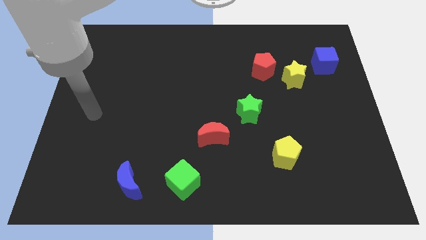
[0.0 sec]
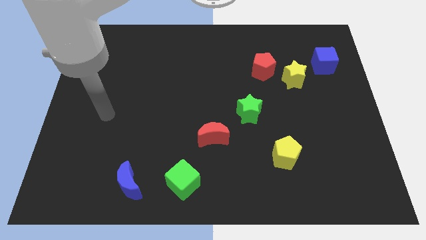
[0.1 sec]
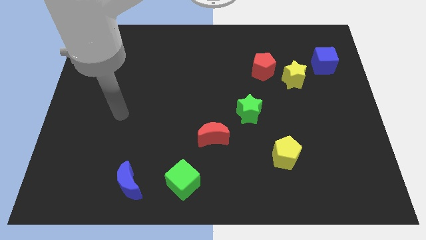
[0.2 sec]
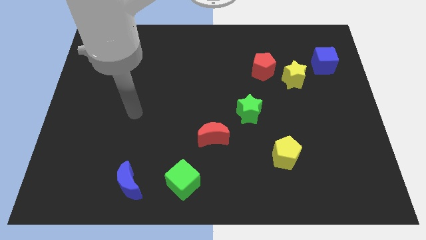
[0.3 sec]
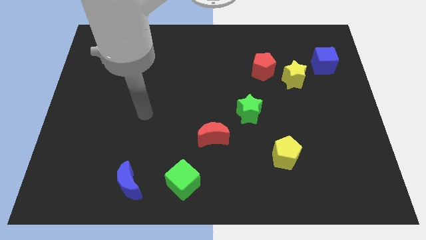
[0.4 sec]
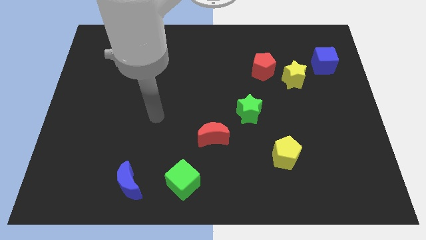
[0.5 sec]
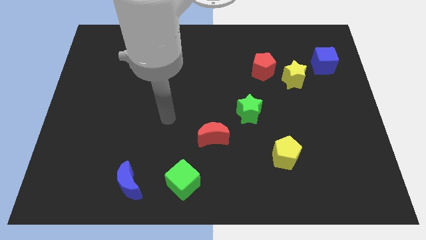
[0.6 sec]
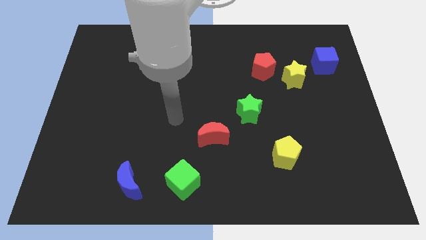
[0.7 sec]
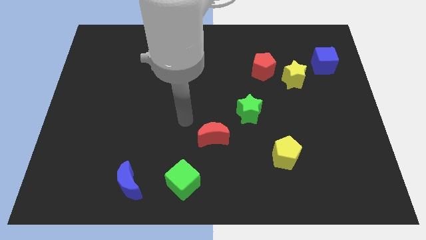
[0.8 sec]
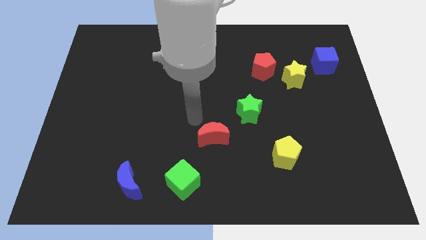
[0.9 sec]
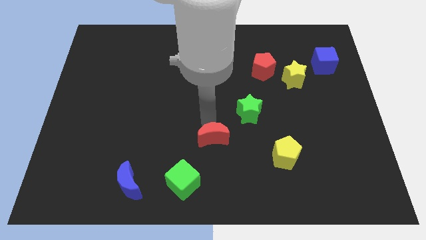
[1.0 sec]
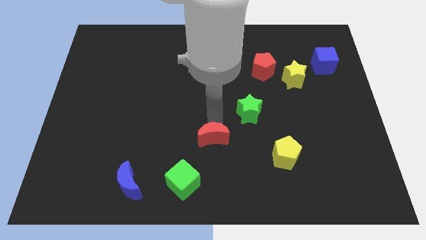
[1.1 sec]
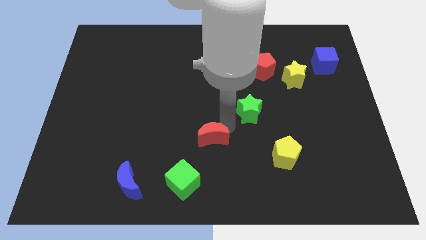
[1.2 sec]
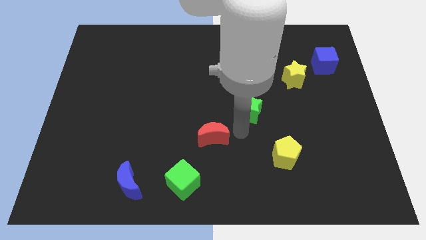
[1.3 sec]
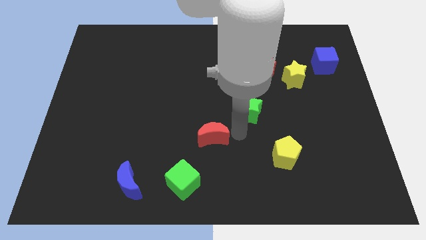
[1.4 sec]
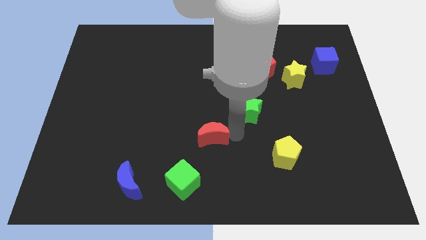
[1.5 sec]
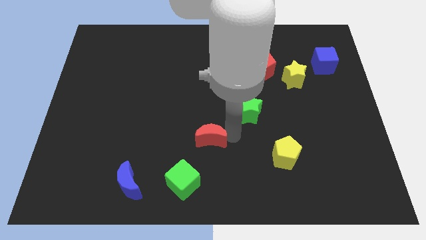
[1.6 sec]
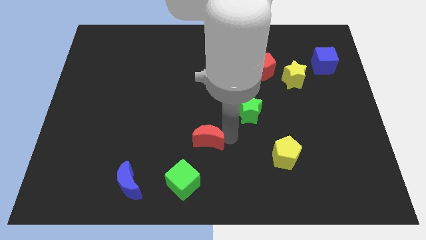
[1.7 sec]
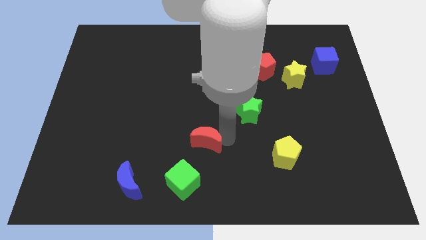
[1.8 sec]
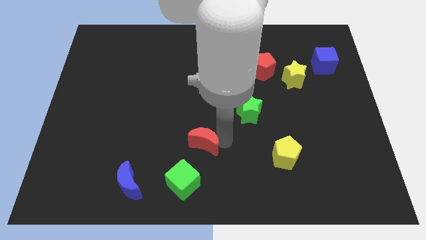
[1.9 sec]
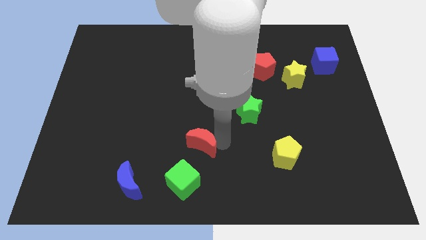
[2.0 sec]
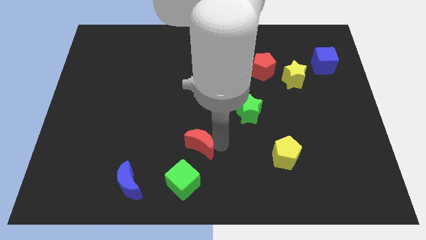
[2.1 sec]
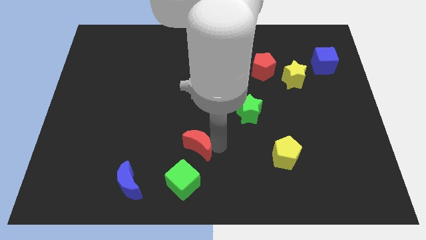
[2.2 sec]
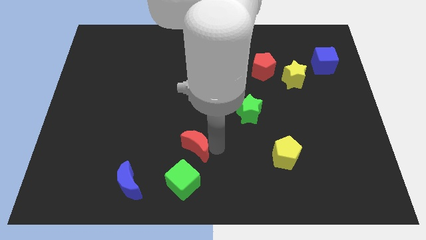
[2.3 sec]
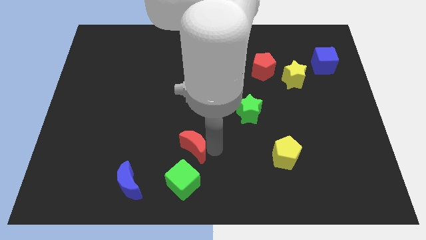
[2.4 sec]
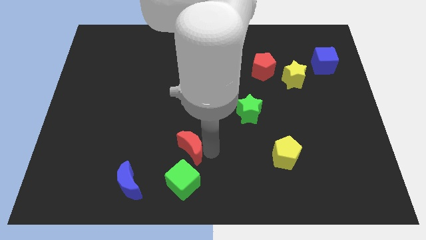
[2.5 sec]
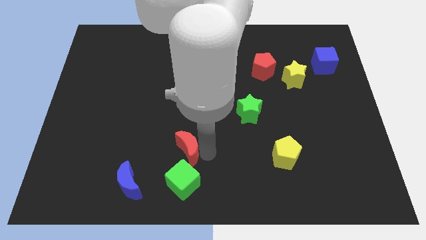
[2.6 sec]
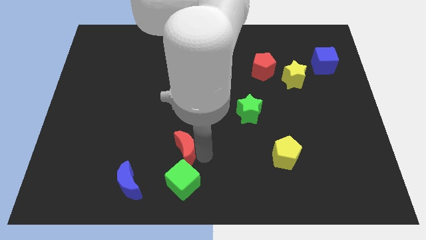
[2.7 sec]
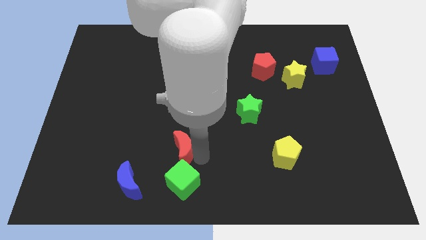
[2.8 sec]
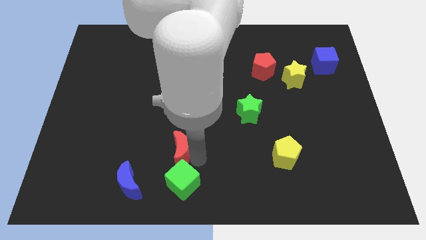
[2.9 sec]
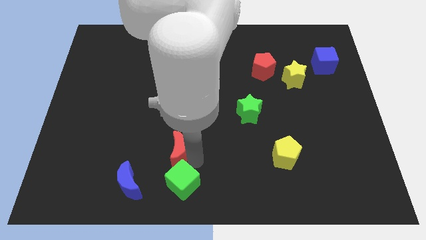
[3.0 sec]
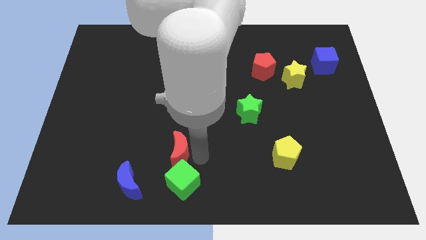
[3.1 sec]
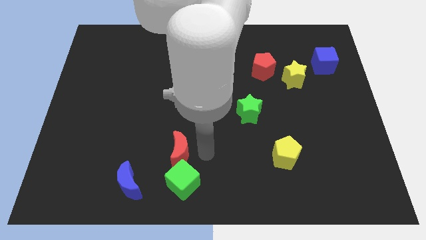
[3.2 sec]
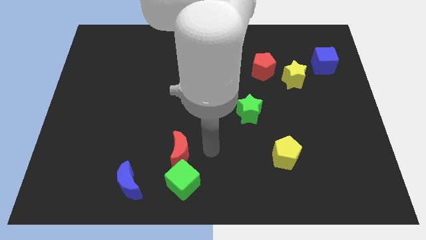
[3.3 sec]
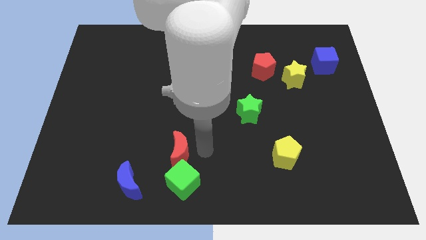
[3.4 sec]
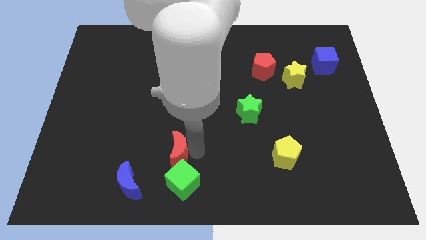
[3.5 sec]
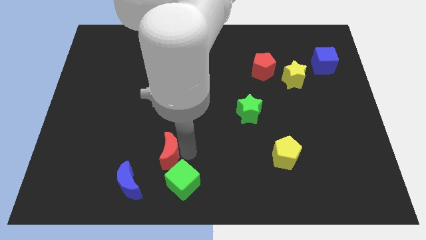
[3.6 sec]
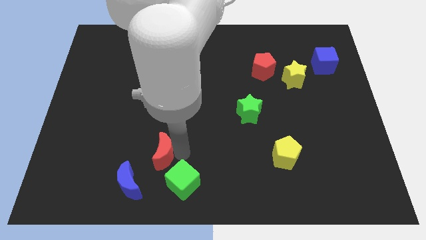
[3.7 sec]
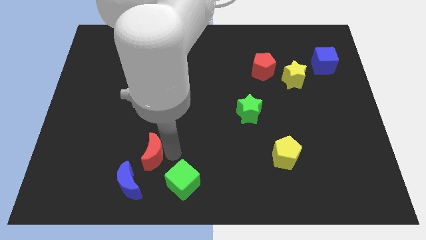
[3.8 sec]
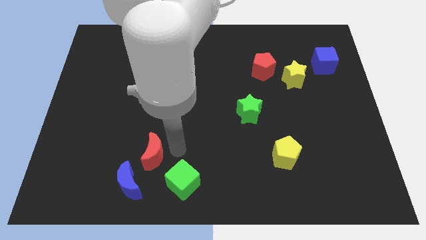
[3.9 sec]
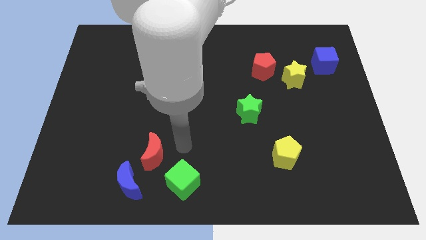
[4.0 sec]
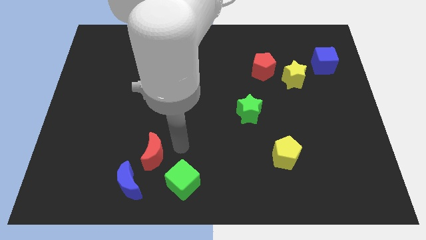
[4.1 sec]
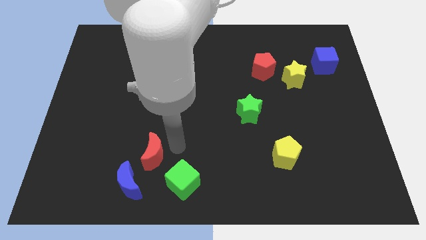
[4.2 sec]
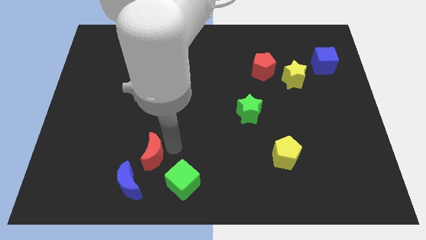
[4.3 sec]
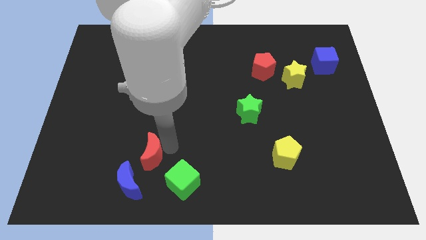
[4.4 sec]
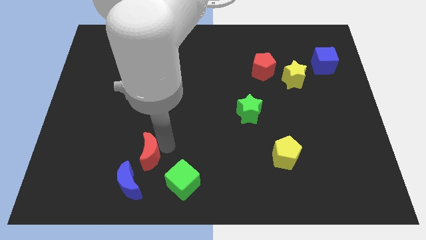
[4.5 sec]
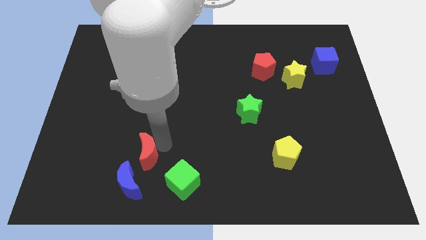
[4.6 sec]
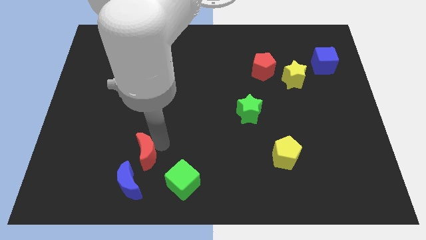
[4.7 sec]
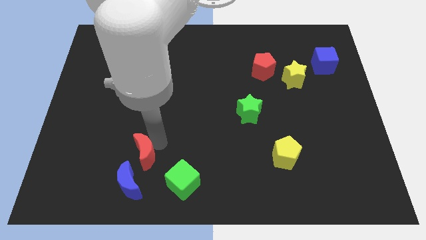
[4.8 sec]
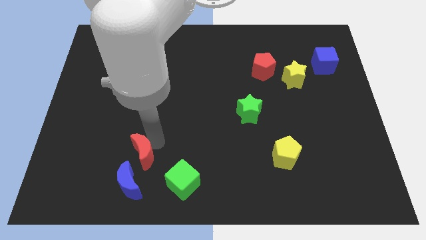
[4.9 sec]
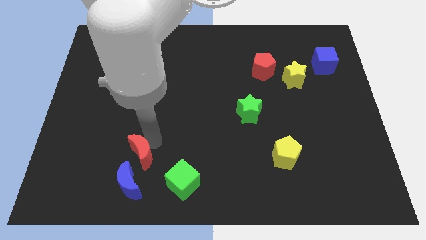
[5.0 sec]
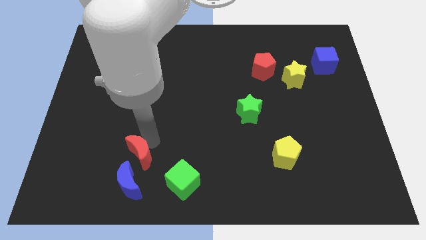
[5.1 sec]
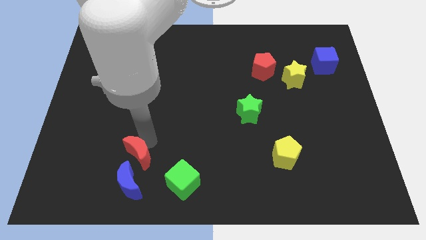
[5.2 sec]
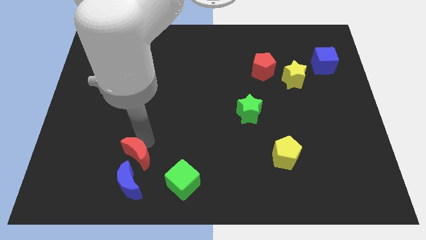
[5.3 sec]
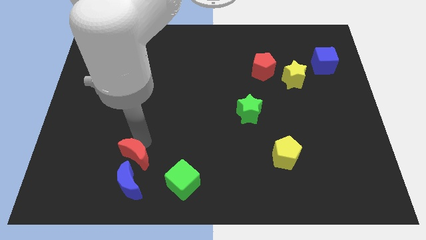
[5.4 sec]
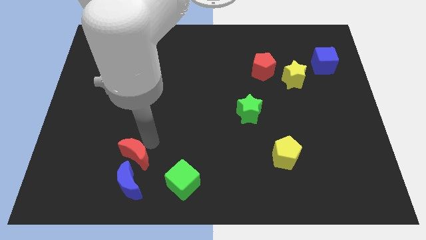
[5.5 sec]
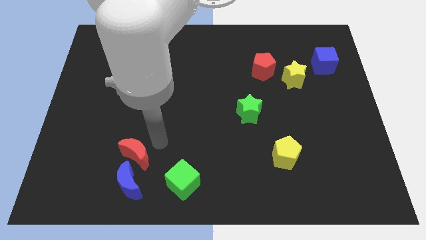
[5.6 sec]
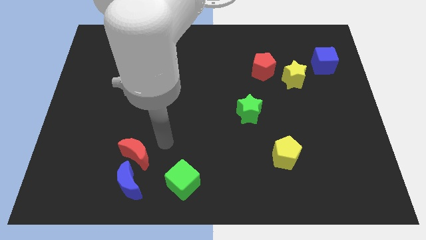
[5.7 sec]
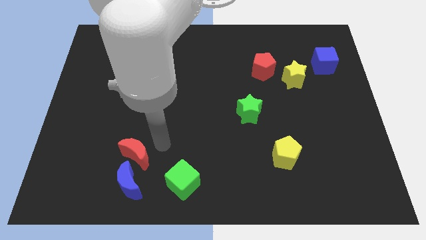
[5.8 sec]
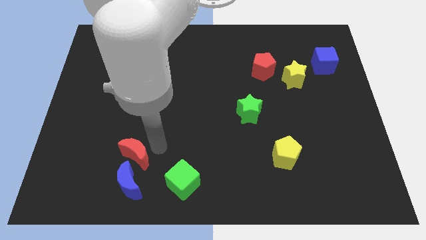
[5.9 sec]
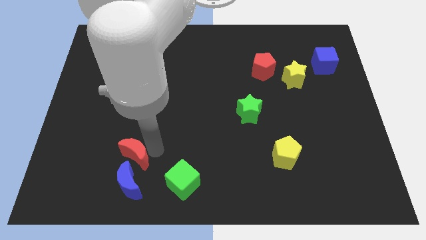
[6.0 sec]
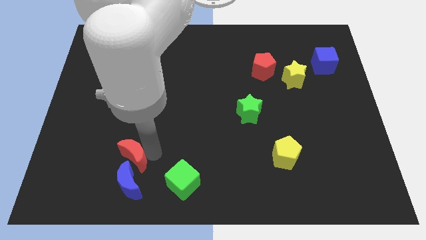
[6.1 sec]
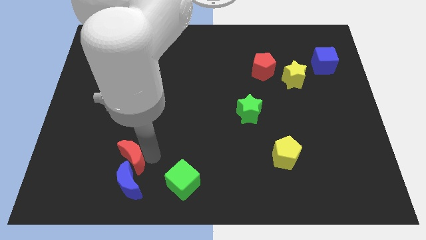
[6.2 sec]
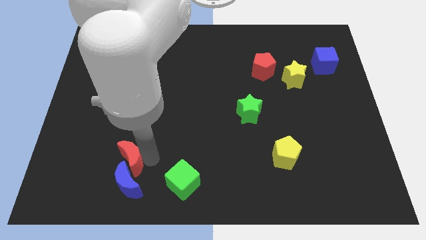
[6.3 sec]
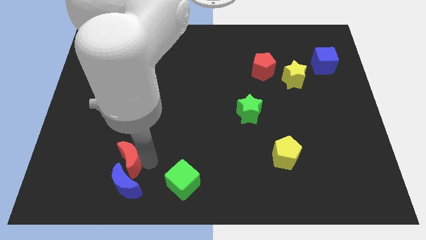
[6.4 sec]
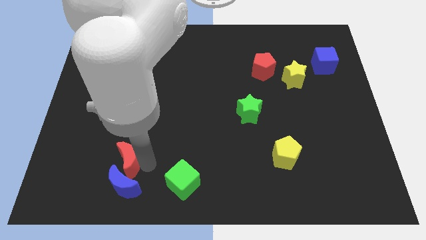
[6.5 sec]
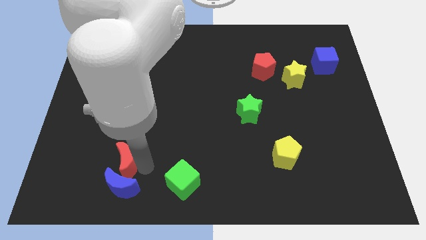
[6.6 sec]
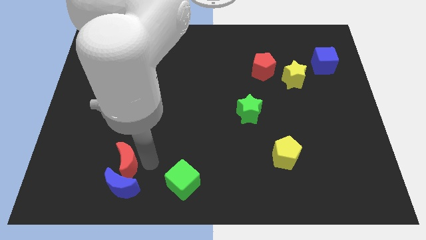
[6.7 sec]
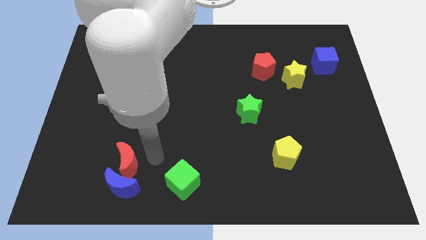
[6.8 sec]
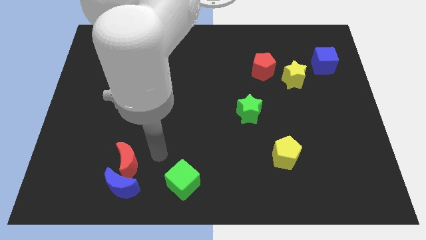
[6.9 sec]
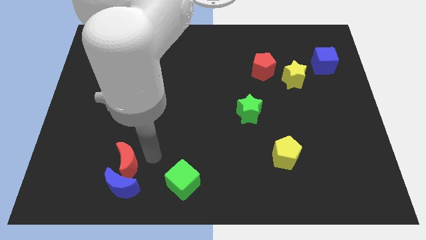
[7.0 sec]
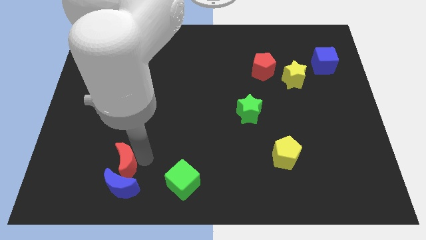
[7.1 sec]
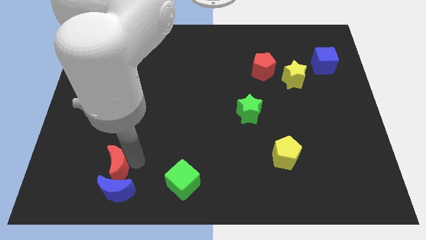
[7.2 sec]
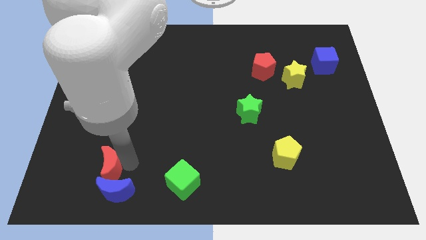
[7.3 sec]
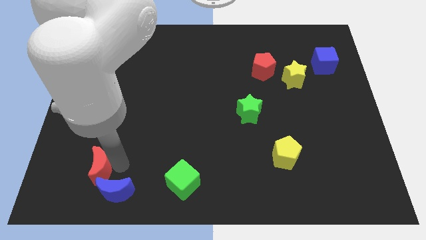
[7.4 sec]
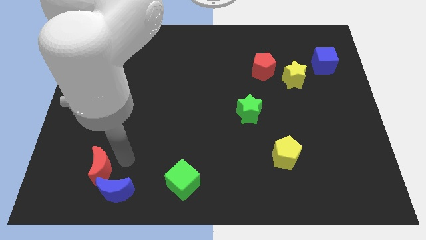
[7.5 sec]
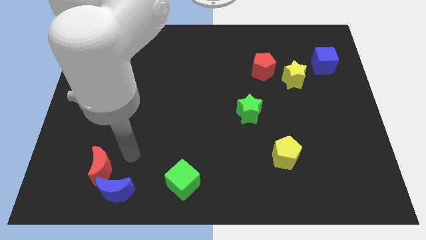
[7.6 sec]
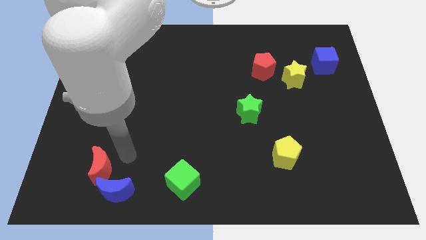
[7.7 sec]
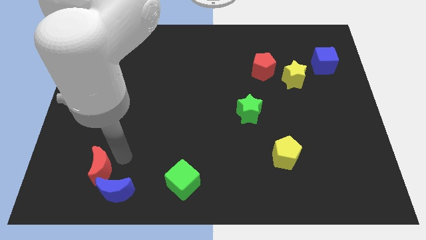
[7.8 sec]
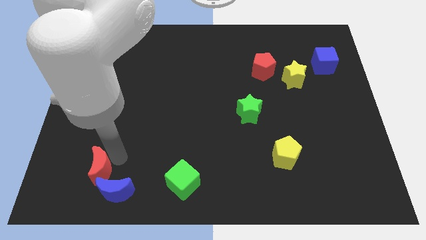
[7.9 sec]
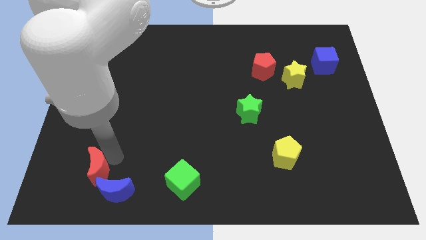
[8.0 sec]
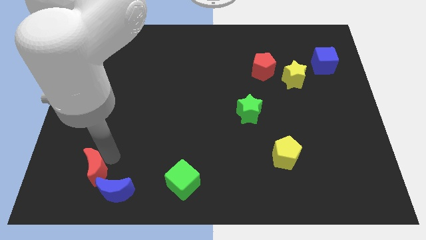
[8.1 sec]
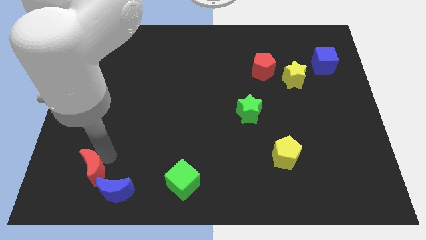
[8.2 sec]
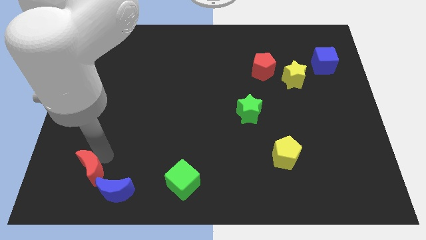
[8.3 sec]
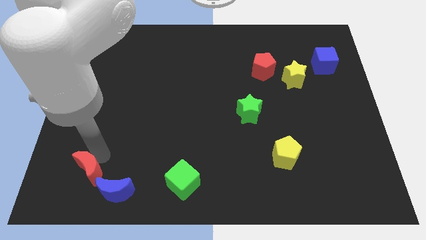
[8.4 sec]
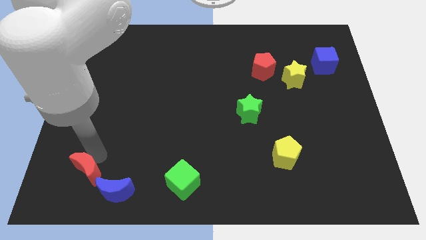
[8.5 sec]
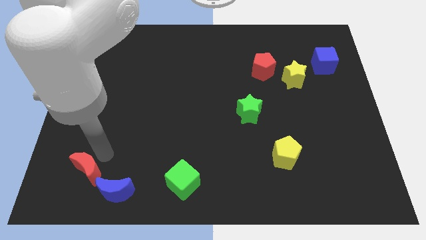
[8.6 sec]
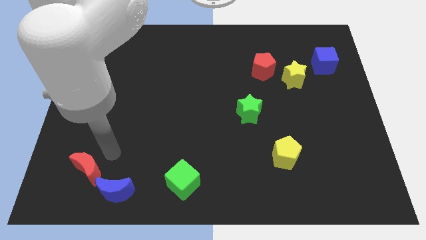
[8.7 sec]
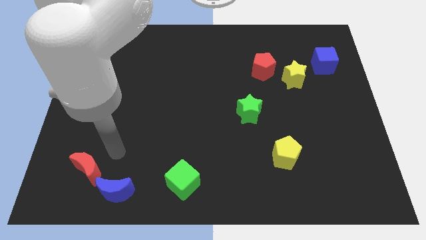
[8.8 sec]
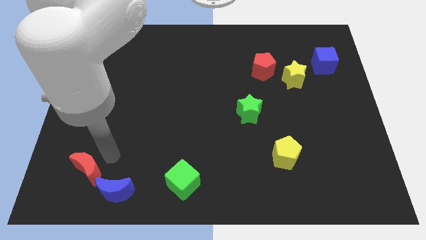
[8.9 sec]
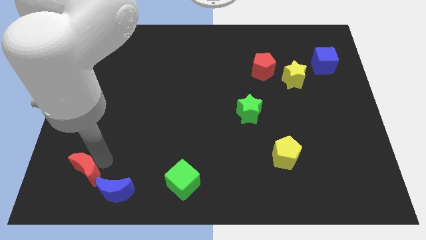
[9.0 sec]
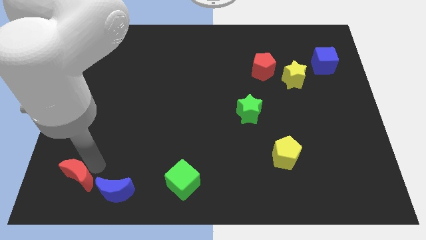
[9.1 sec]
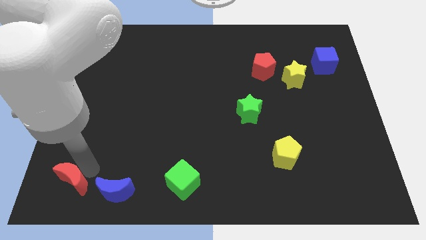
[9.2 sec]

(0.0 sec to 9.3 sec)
move the red moon to the lower left corner
